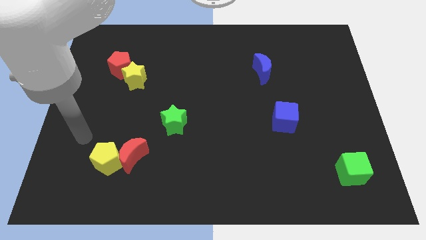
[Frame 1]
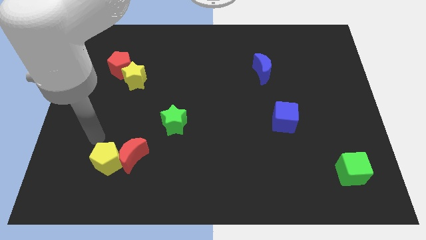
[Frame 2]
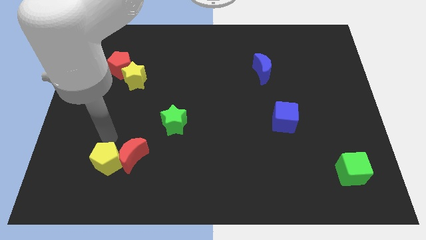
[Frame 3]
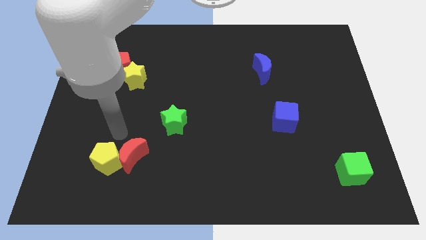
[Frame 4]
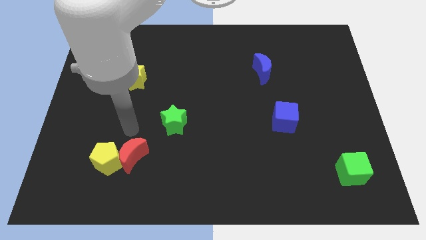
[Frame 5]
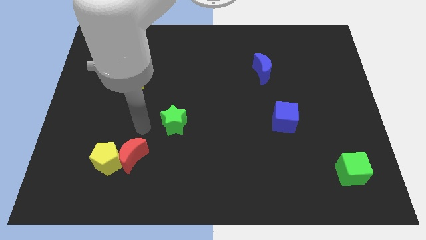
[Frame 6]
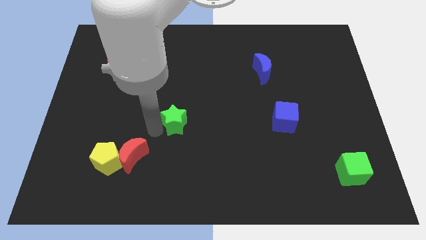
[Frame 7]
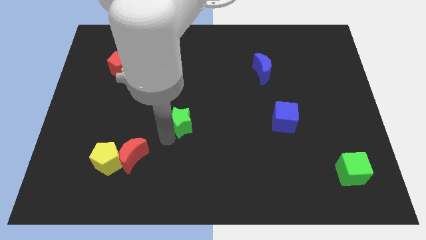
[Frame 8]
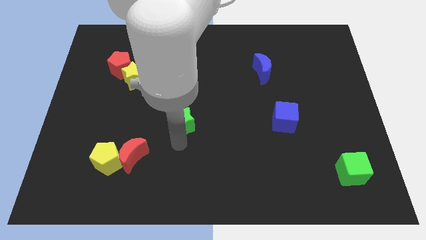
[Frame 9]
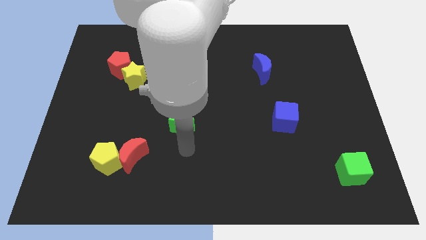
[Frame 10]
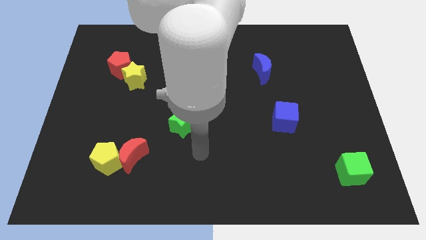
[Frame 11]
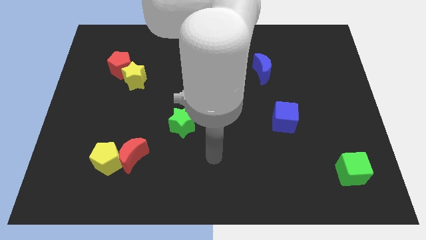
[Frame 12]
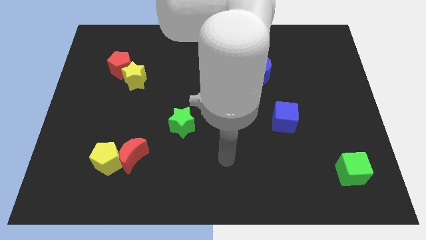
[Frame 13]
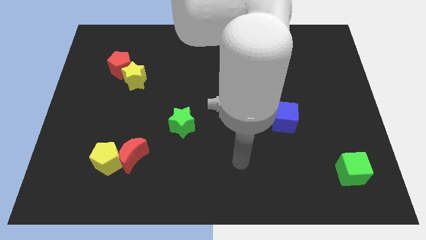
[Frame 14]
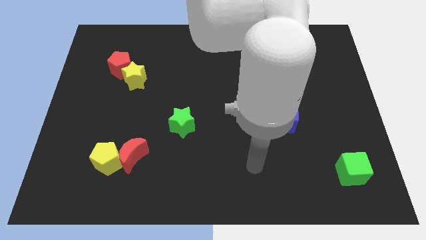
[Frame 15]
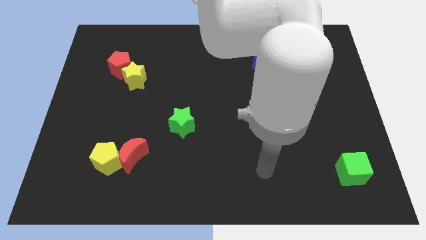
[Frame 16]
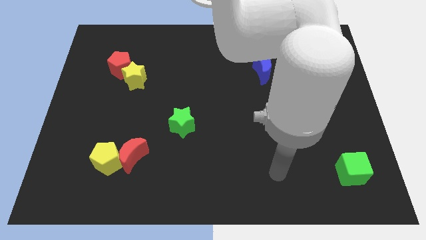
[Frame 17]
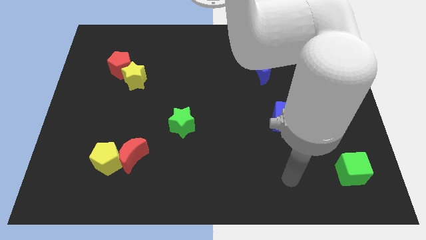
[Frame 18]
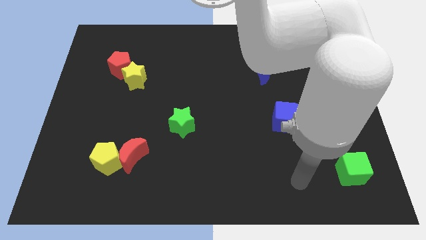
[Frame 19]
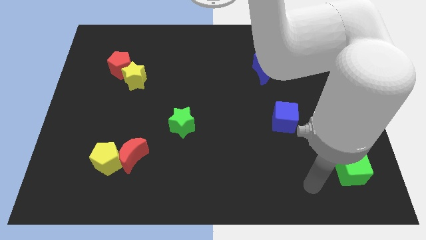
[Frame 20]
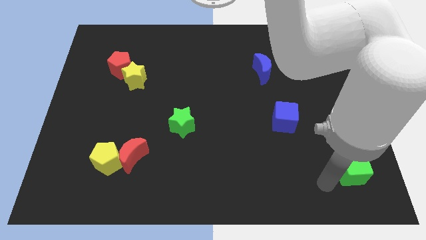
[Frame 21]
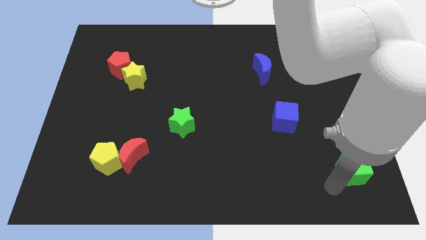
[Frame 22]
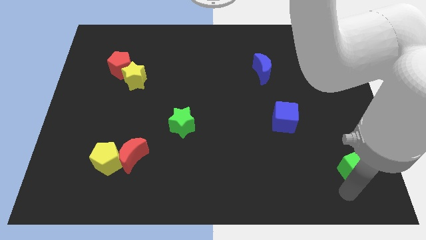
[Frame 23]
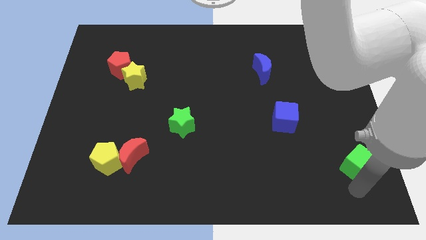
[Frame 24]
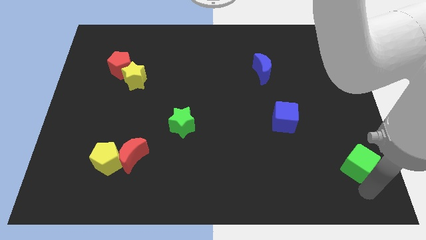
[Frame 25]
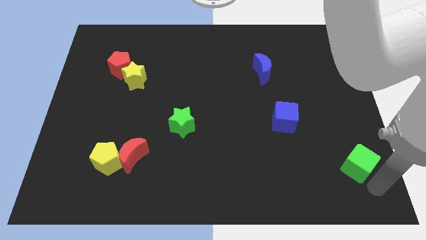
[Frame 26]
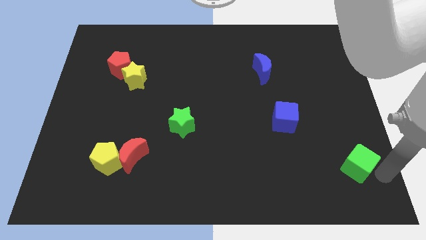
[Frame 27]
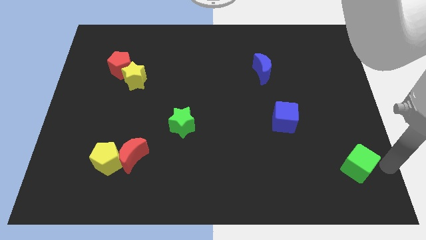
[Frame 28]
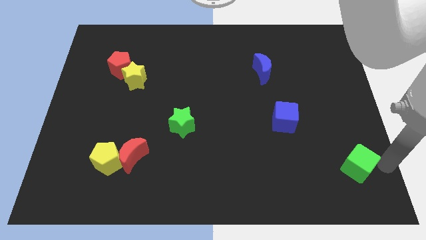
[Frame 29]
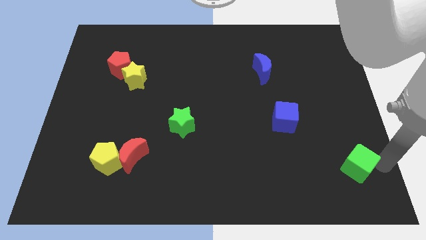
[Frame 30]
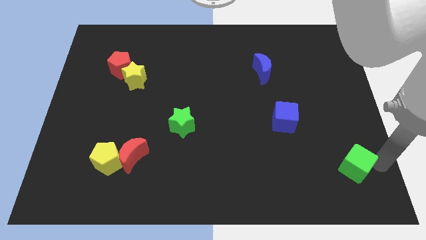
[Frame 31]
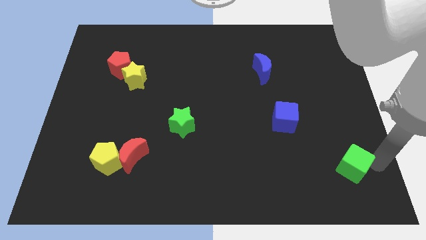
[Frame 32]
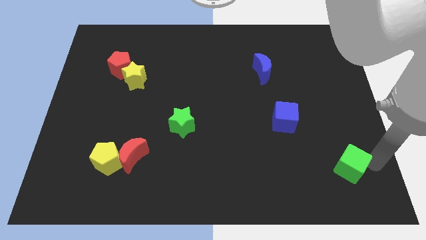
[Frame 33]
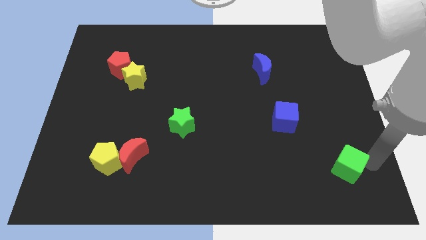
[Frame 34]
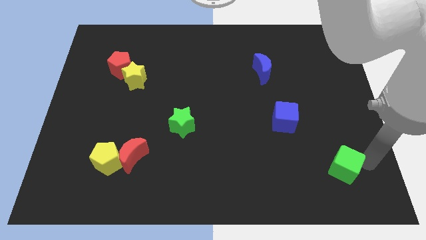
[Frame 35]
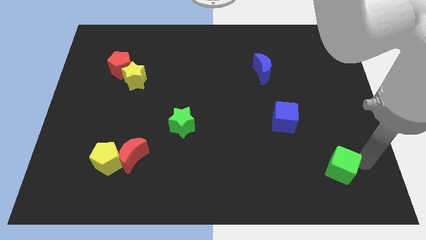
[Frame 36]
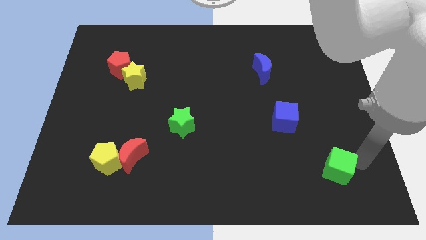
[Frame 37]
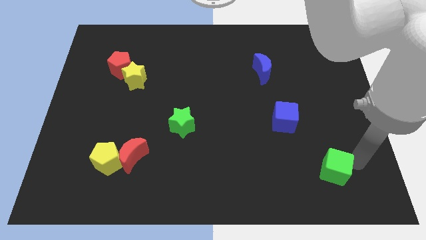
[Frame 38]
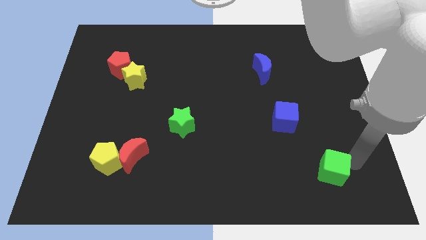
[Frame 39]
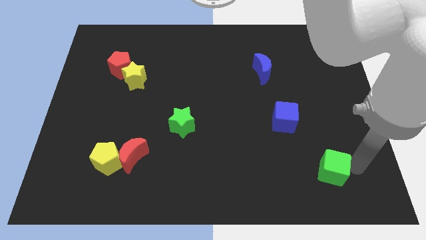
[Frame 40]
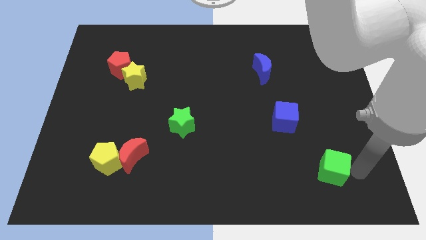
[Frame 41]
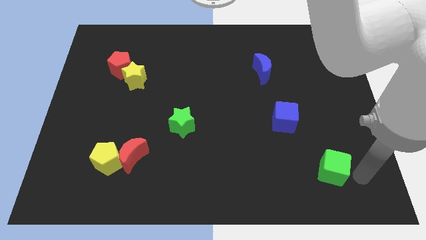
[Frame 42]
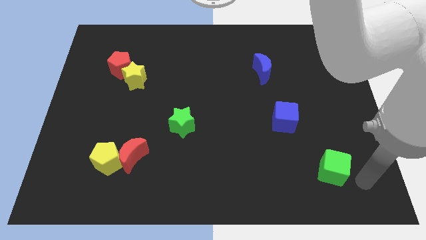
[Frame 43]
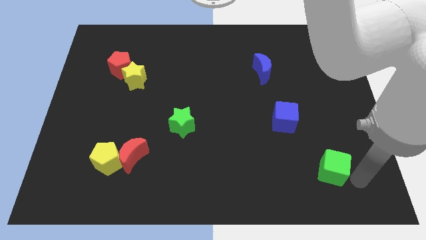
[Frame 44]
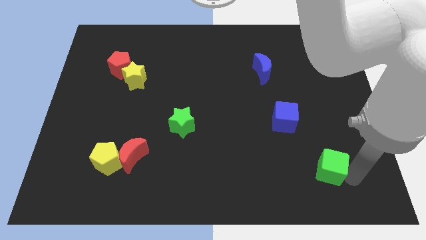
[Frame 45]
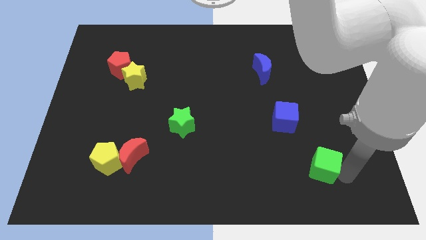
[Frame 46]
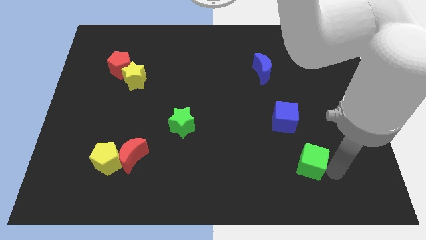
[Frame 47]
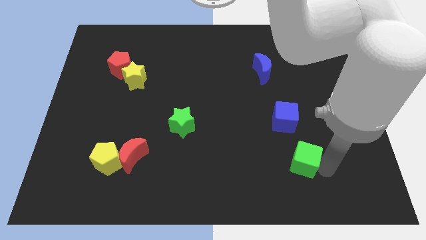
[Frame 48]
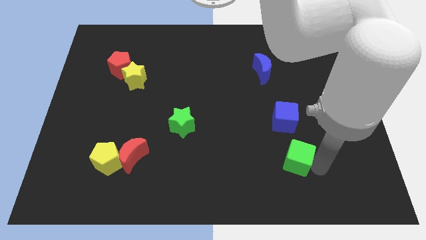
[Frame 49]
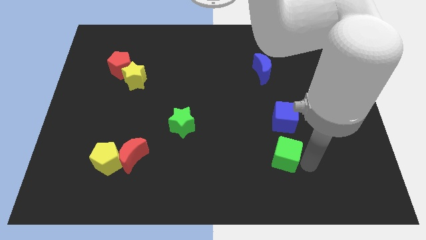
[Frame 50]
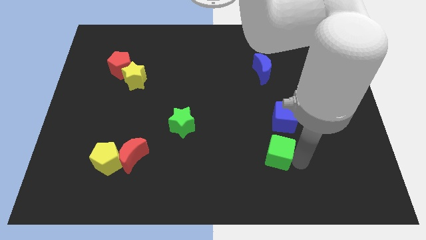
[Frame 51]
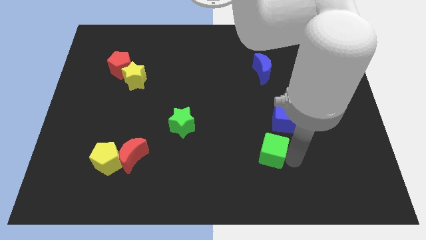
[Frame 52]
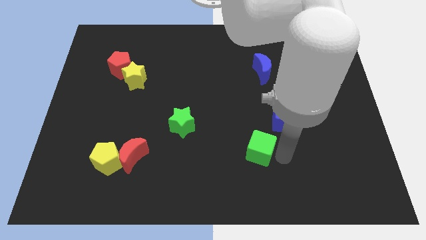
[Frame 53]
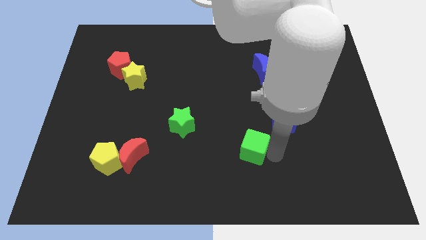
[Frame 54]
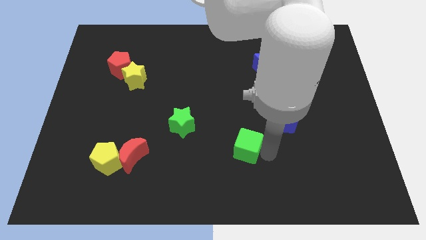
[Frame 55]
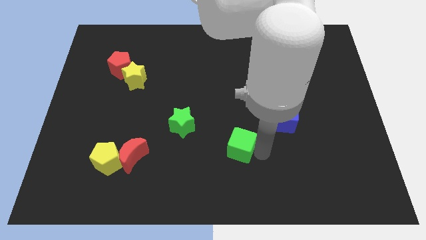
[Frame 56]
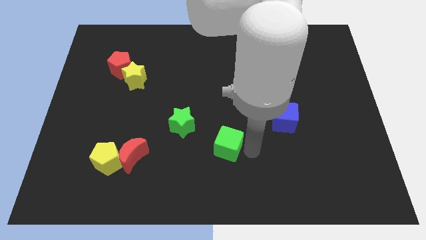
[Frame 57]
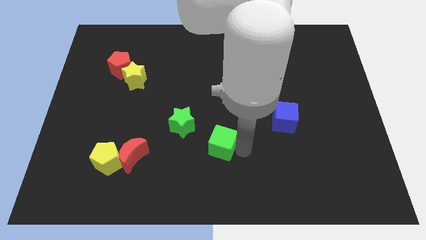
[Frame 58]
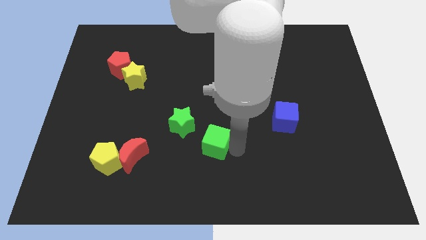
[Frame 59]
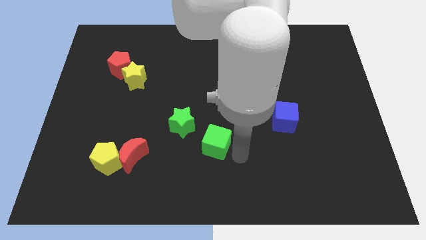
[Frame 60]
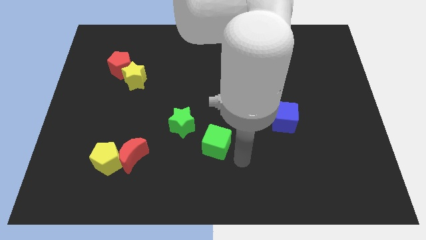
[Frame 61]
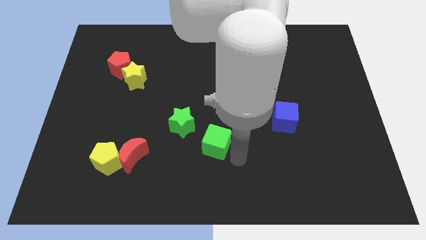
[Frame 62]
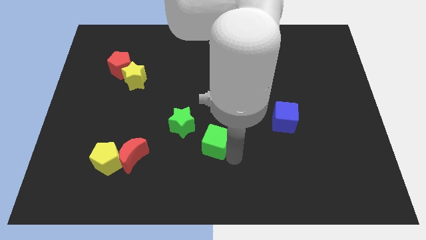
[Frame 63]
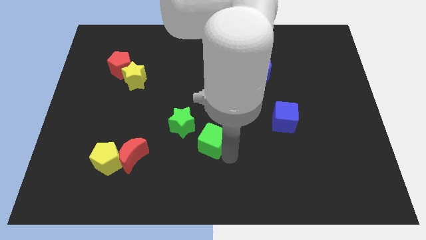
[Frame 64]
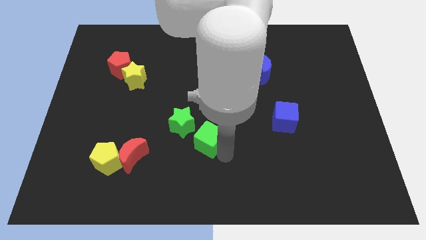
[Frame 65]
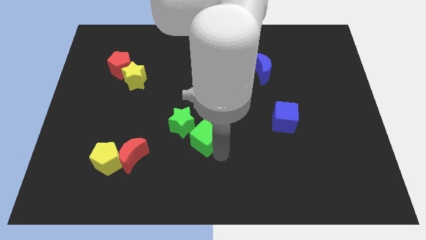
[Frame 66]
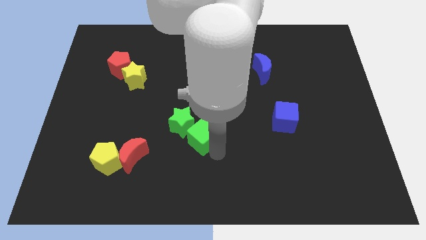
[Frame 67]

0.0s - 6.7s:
push the green cube towards the green star
